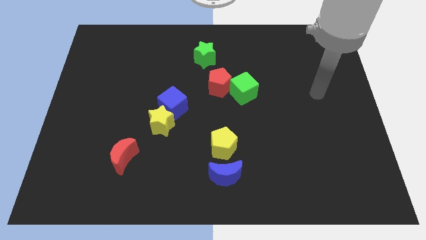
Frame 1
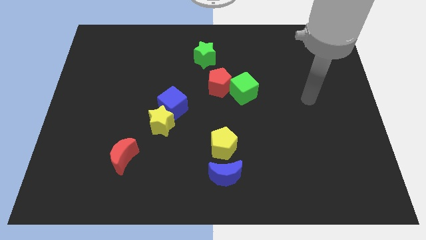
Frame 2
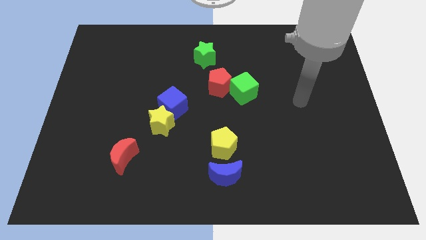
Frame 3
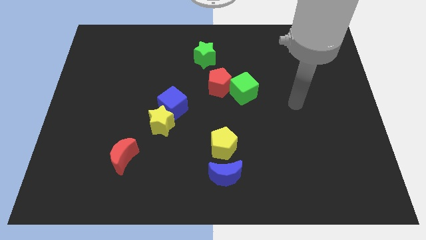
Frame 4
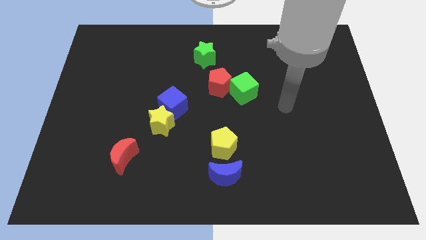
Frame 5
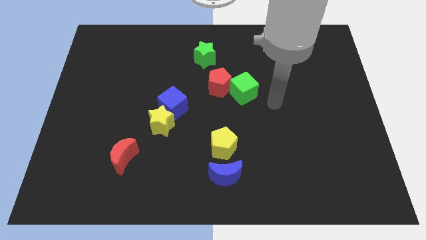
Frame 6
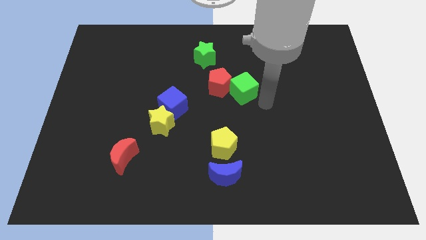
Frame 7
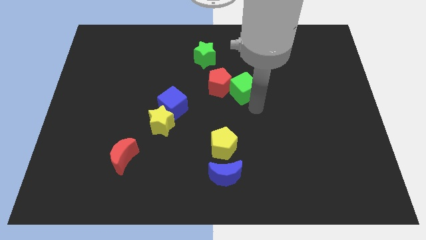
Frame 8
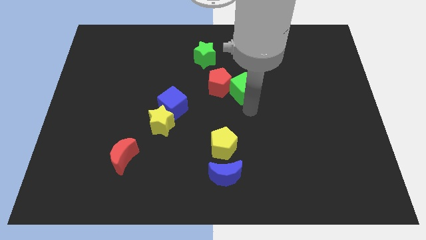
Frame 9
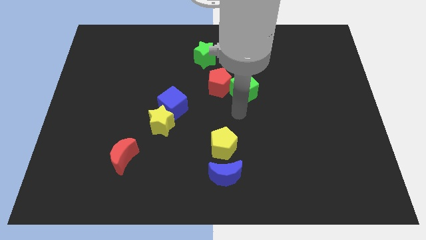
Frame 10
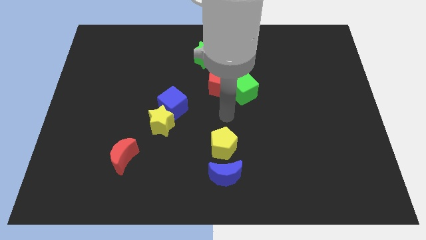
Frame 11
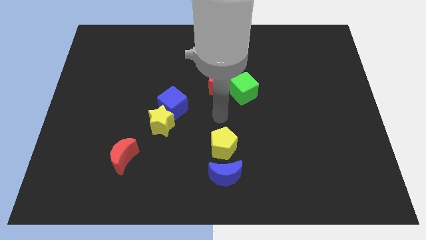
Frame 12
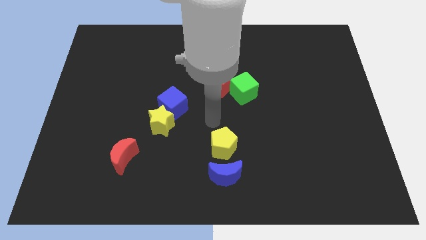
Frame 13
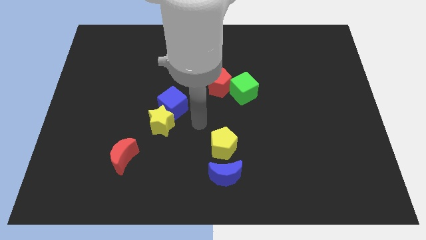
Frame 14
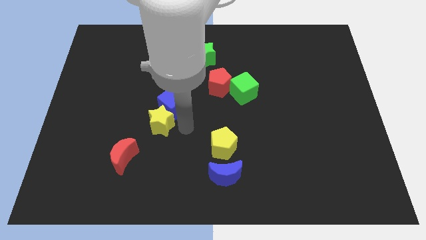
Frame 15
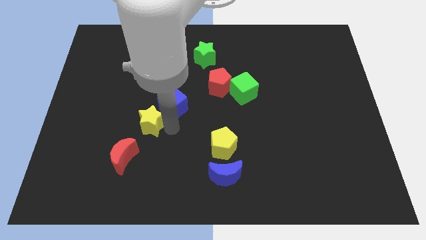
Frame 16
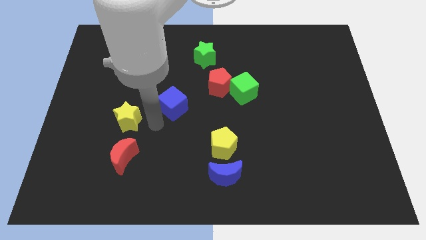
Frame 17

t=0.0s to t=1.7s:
separate the blue cube from the yellow star

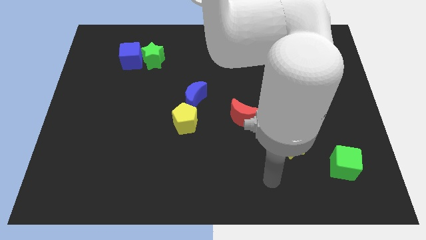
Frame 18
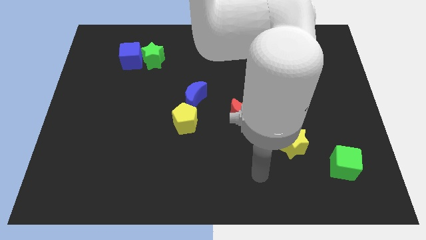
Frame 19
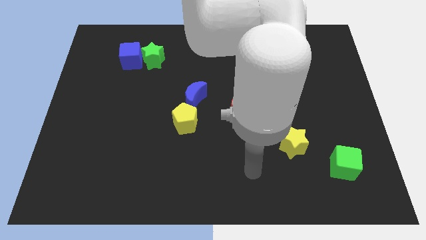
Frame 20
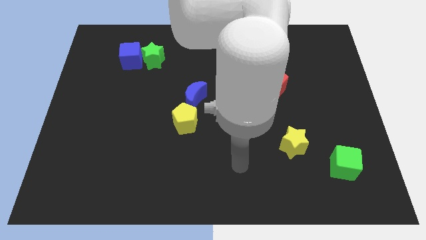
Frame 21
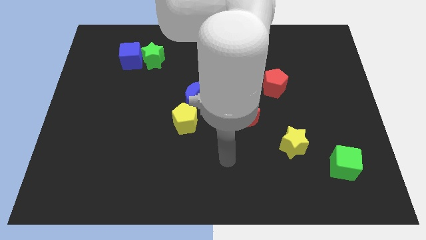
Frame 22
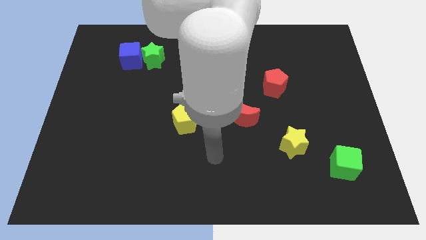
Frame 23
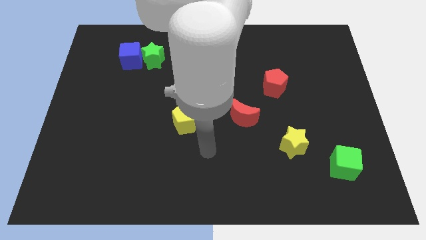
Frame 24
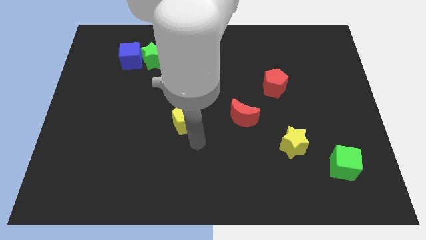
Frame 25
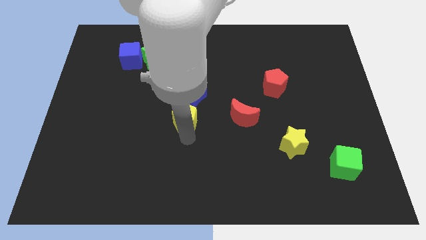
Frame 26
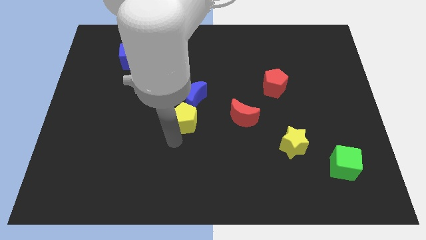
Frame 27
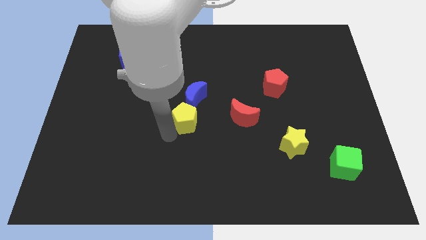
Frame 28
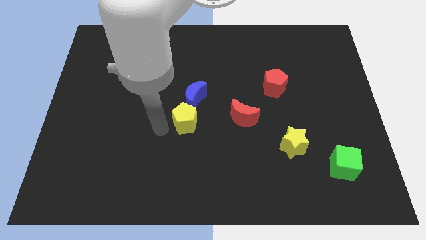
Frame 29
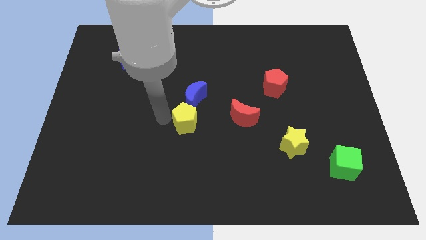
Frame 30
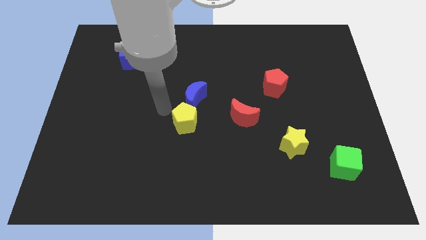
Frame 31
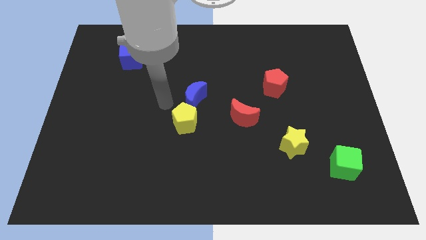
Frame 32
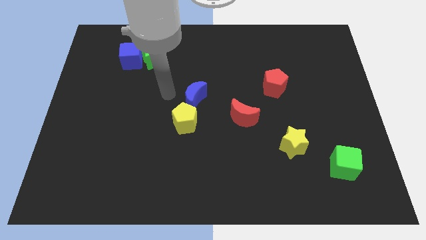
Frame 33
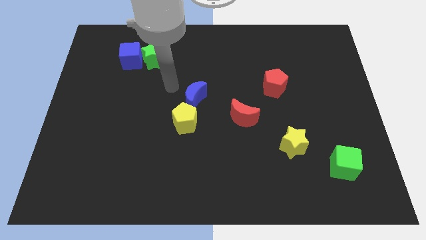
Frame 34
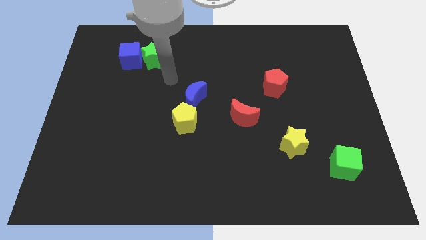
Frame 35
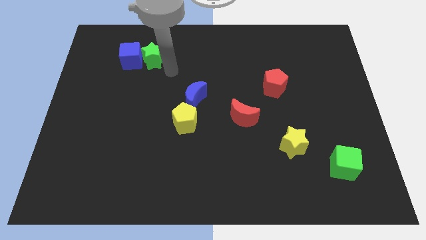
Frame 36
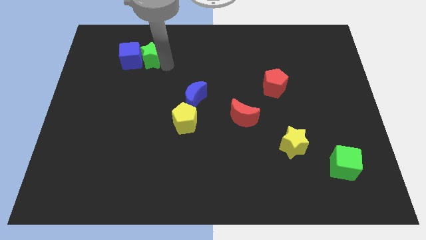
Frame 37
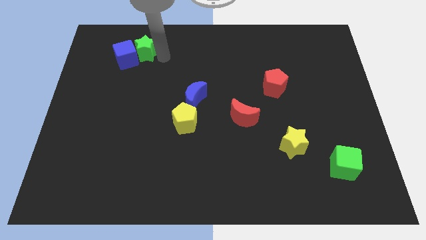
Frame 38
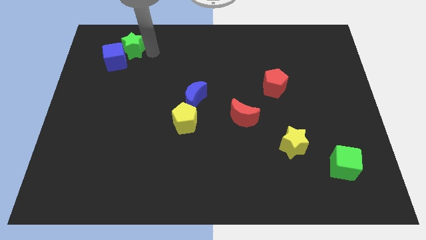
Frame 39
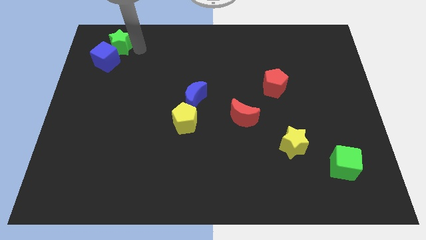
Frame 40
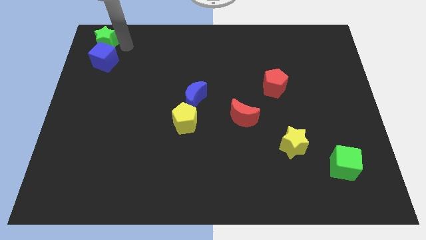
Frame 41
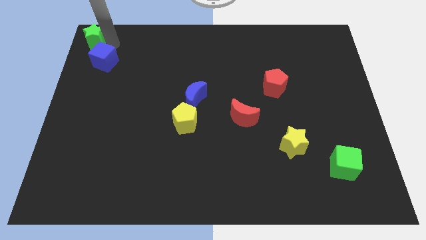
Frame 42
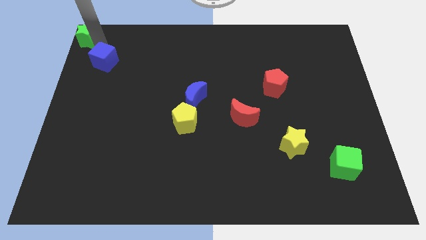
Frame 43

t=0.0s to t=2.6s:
move the blue cube away from the green star

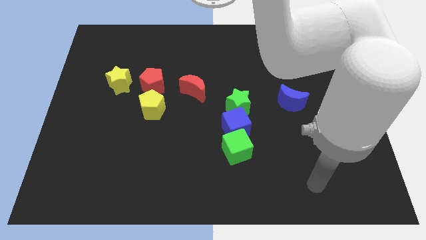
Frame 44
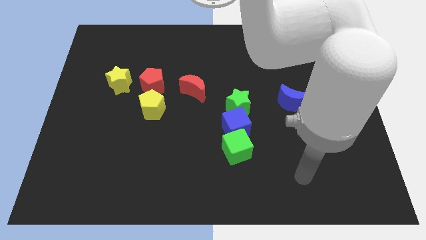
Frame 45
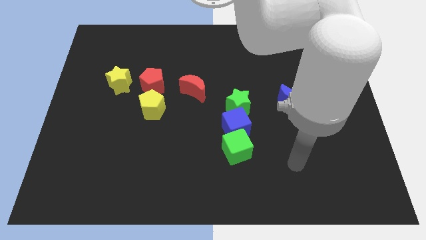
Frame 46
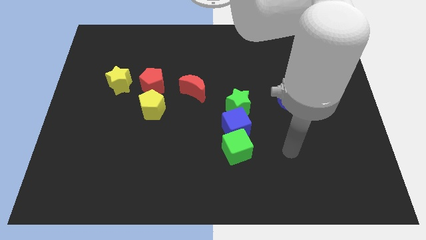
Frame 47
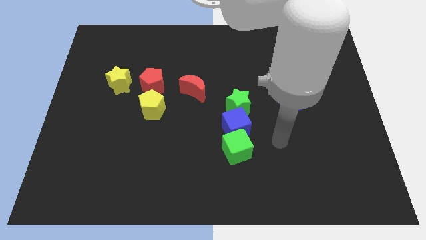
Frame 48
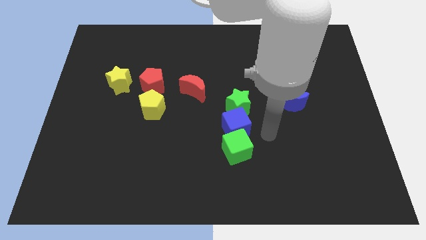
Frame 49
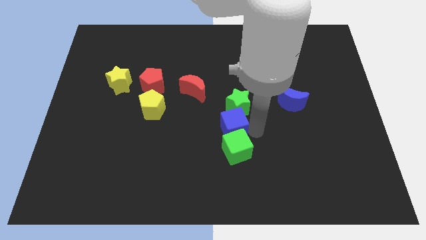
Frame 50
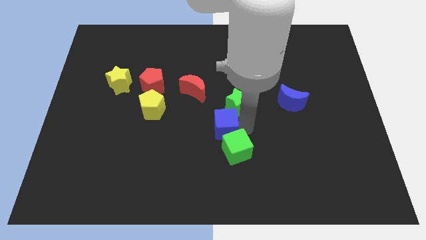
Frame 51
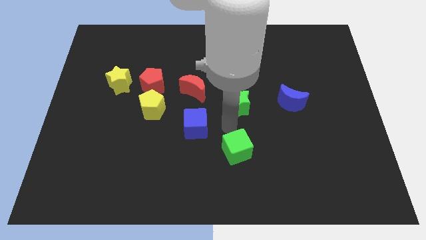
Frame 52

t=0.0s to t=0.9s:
separate the green cube from the blue cube

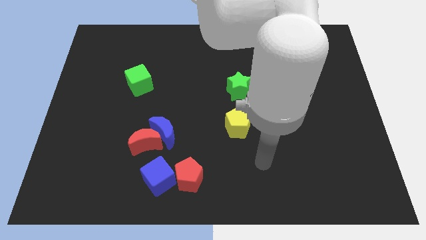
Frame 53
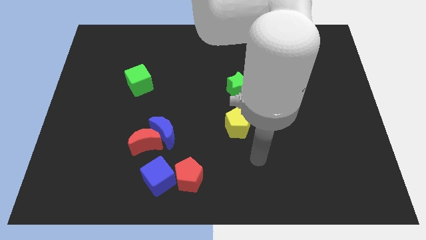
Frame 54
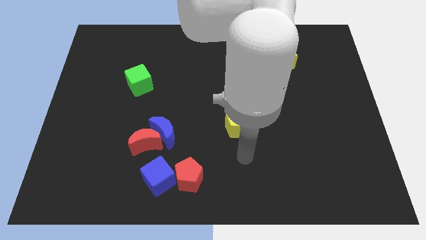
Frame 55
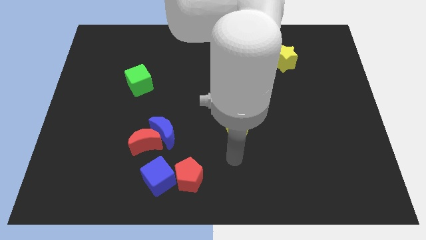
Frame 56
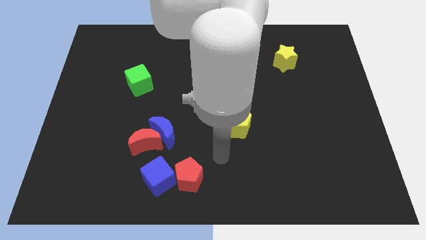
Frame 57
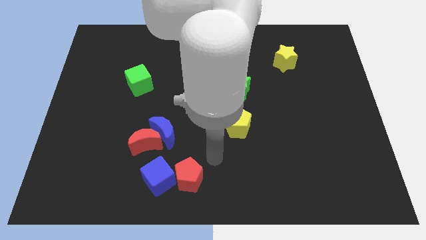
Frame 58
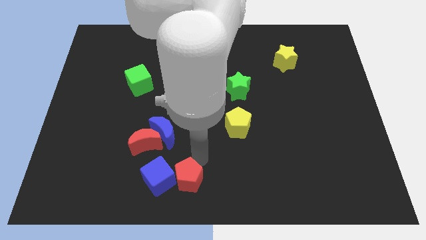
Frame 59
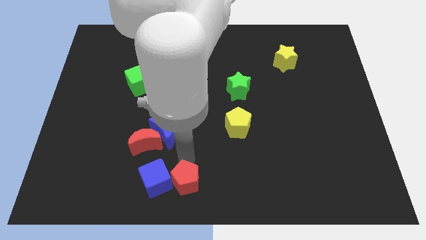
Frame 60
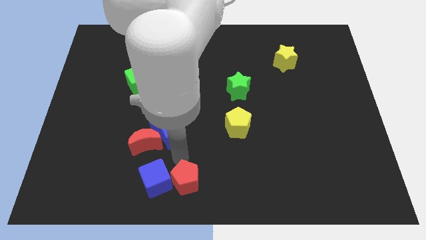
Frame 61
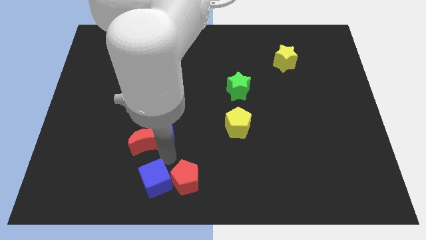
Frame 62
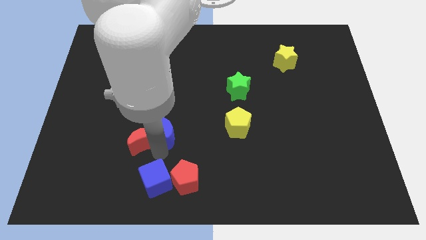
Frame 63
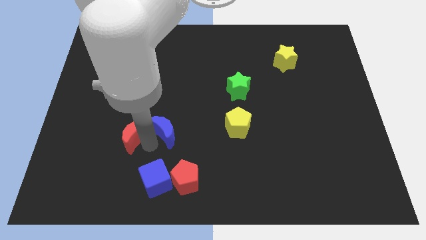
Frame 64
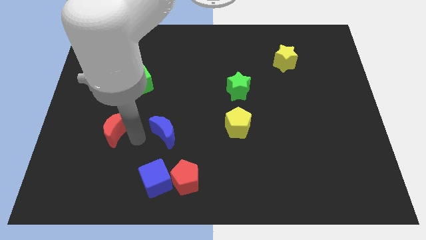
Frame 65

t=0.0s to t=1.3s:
move the blue moon away from the red moon

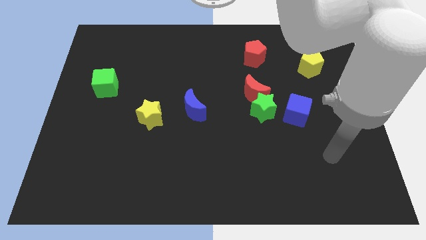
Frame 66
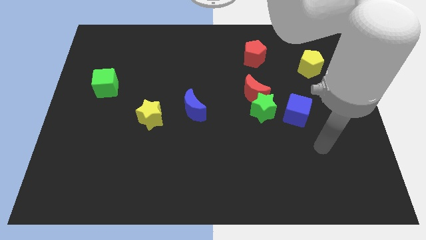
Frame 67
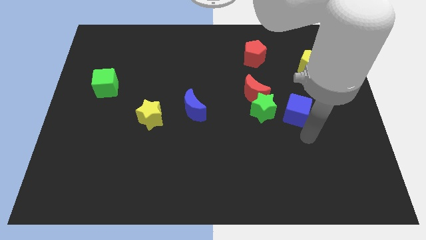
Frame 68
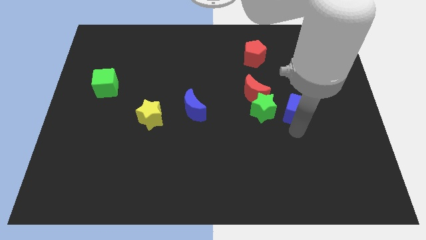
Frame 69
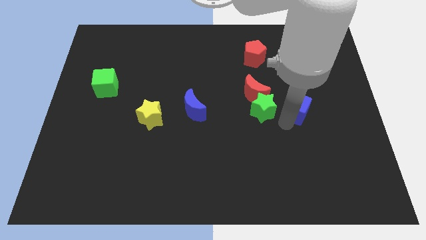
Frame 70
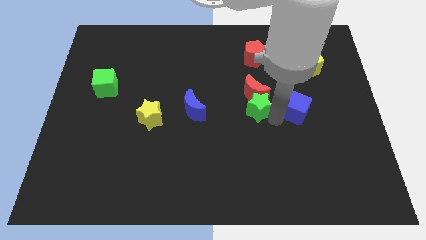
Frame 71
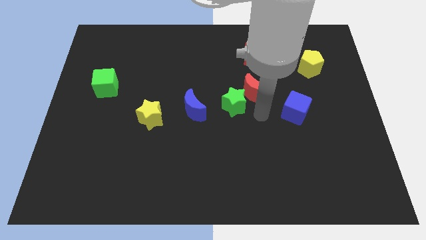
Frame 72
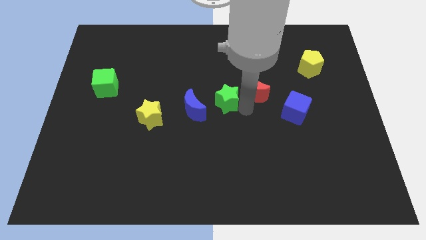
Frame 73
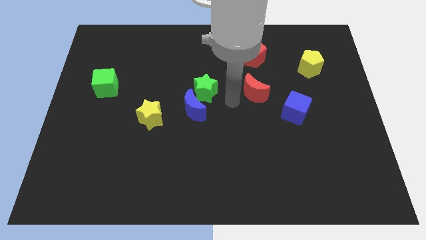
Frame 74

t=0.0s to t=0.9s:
move the red moon away from the green star

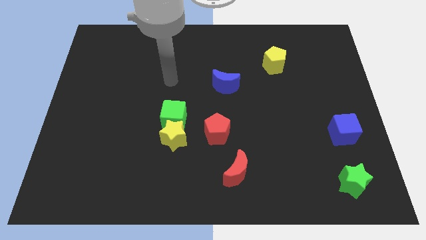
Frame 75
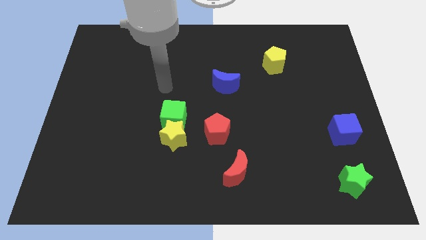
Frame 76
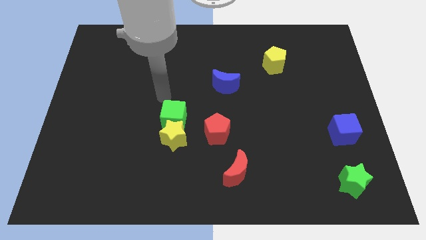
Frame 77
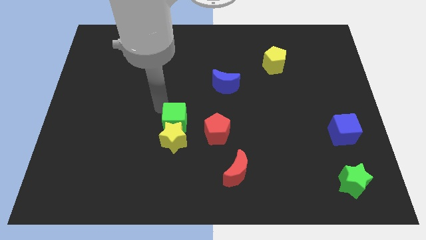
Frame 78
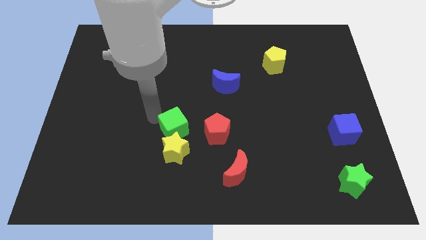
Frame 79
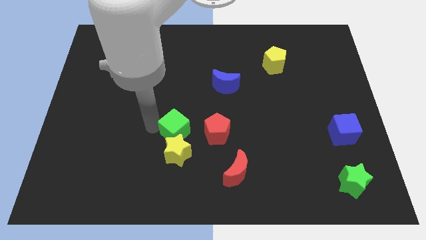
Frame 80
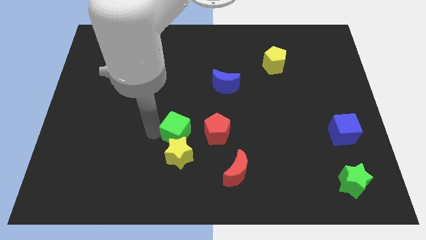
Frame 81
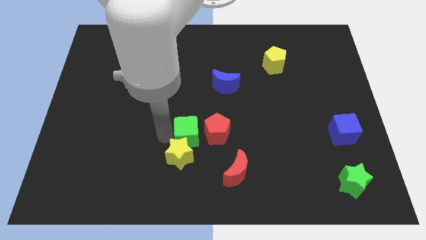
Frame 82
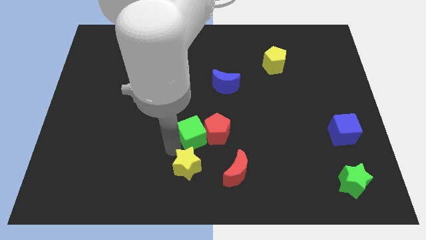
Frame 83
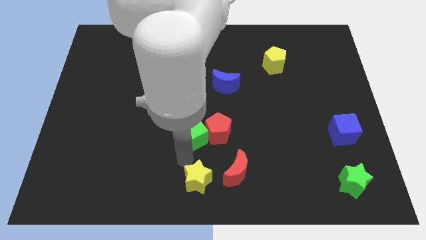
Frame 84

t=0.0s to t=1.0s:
separate the green cube from the yellow star

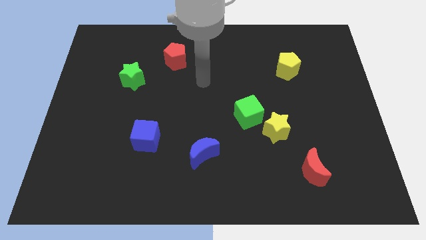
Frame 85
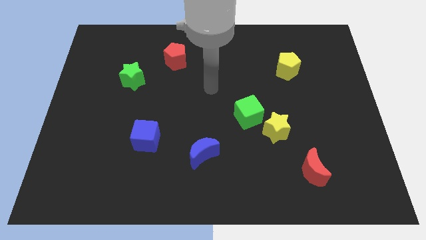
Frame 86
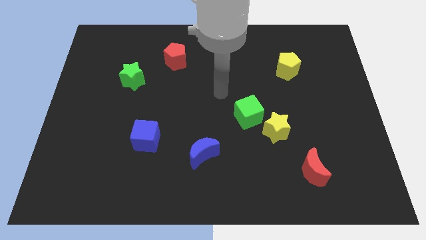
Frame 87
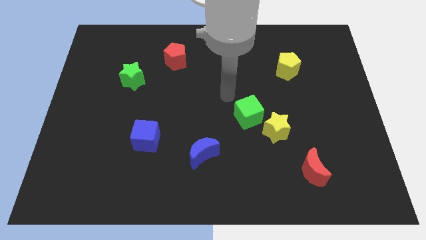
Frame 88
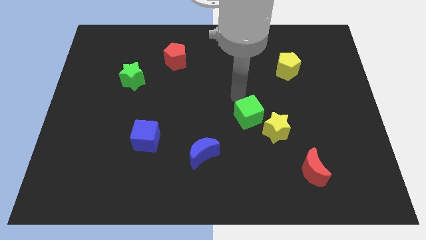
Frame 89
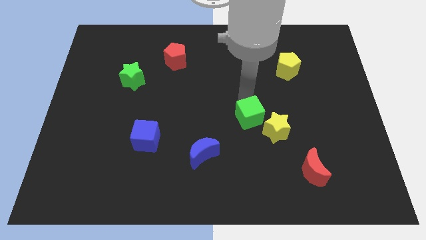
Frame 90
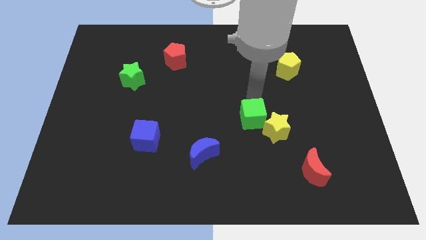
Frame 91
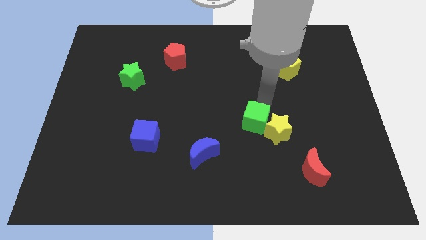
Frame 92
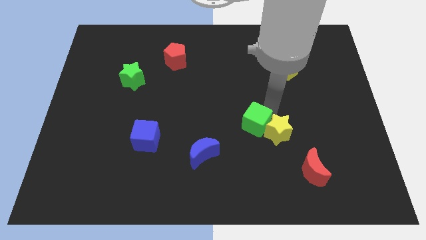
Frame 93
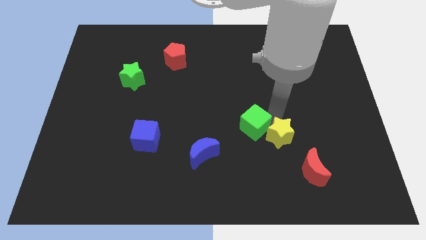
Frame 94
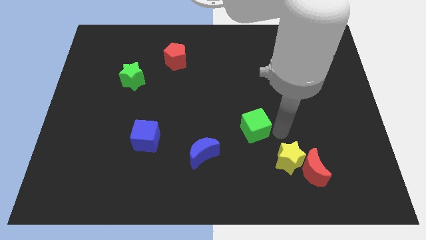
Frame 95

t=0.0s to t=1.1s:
move the green cube away from the yellow star
